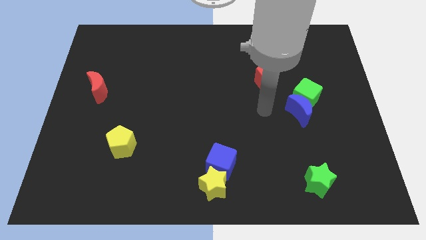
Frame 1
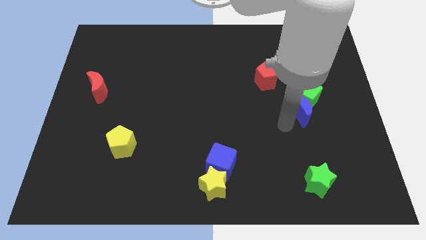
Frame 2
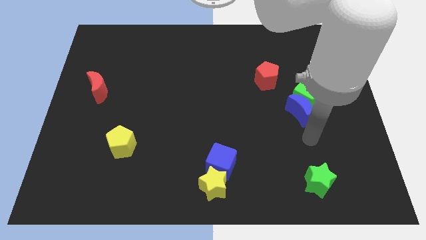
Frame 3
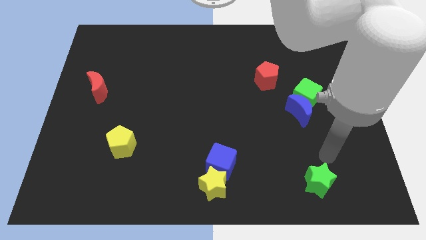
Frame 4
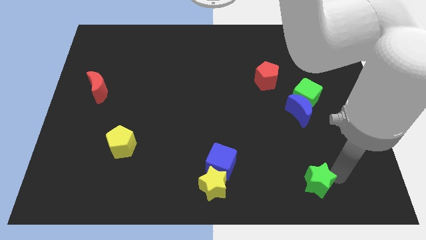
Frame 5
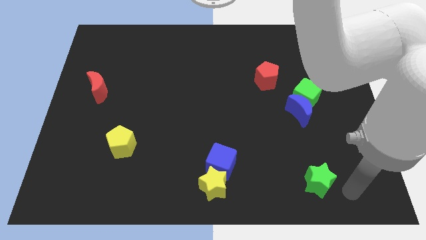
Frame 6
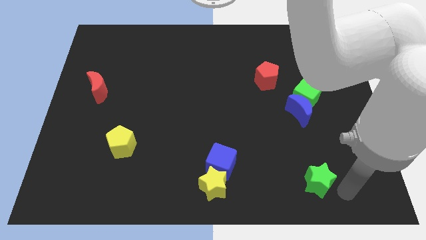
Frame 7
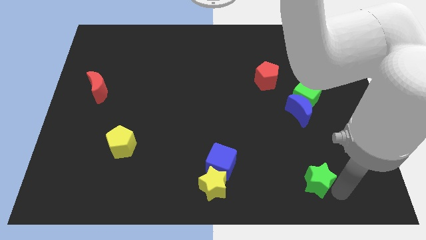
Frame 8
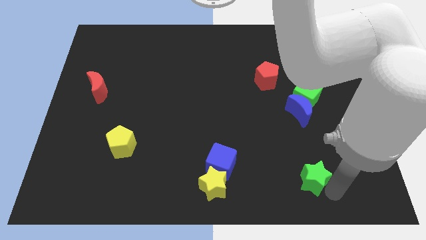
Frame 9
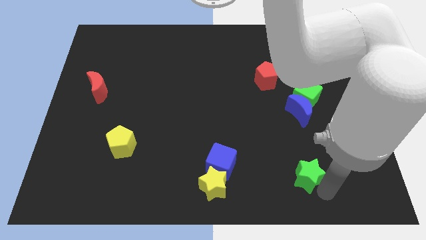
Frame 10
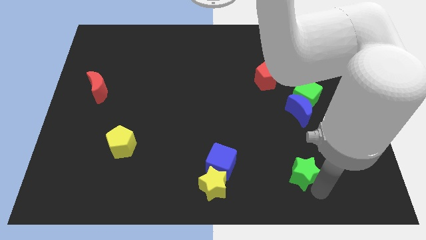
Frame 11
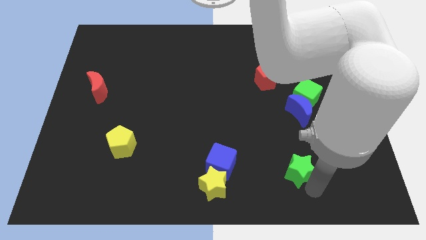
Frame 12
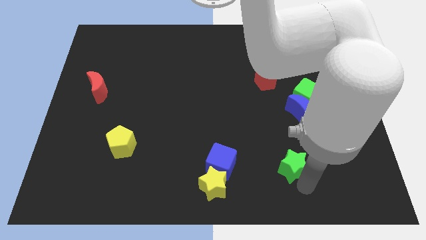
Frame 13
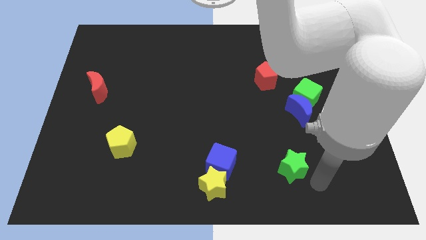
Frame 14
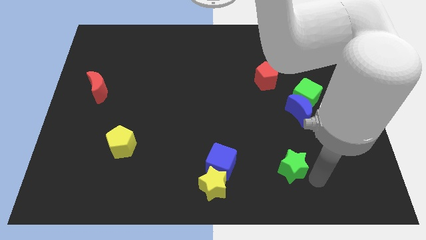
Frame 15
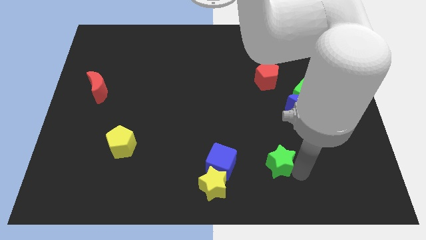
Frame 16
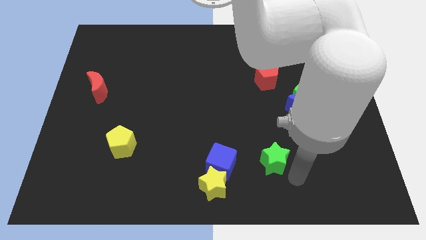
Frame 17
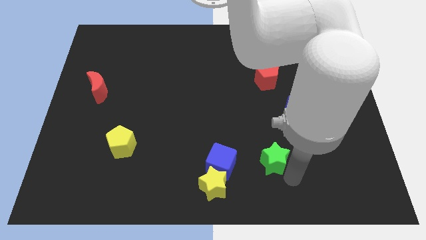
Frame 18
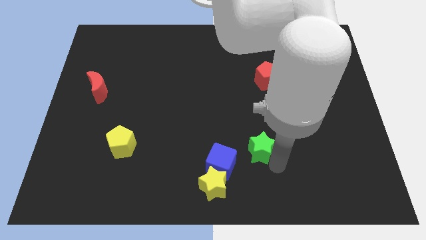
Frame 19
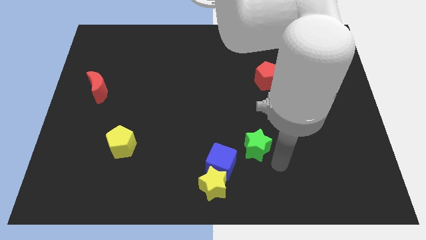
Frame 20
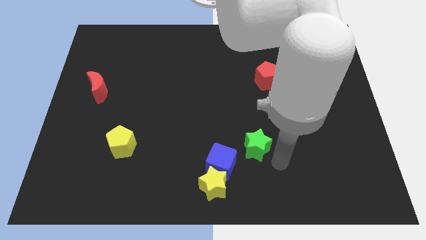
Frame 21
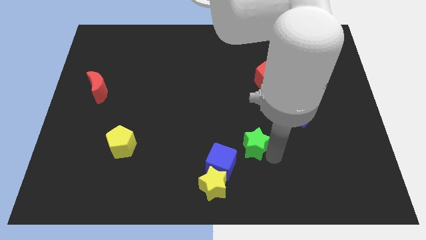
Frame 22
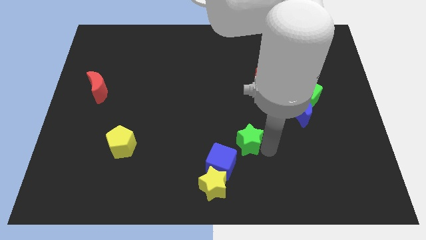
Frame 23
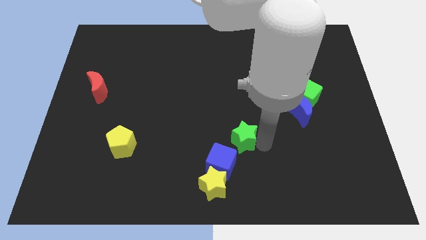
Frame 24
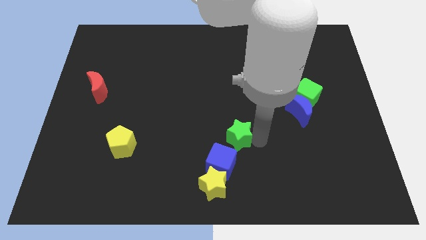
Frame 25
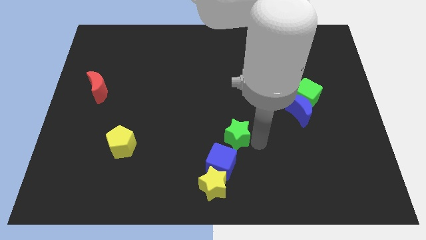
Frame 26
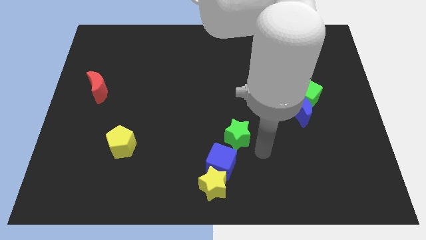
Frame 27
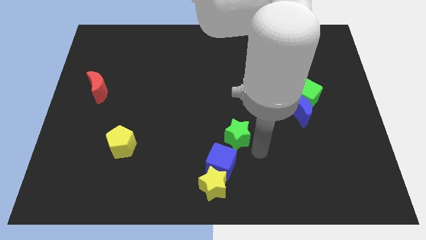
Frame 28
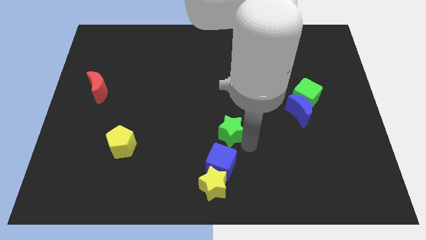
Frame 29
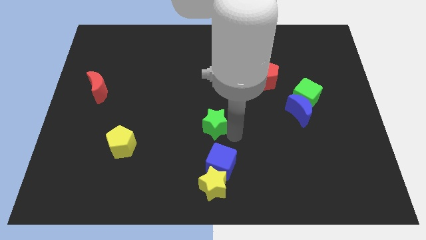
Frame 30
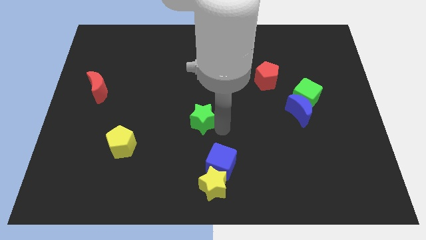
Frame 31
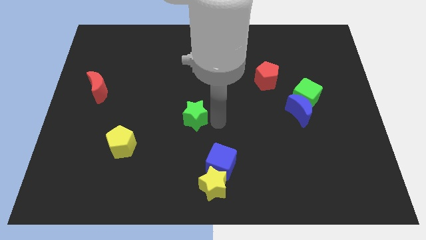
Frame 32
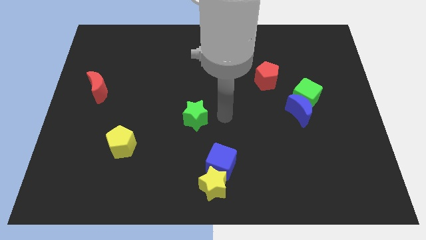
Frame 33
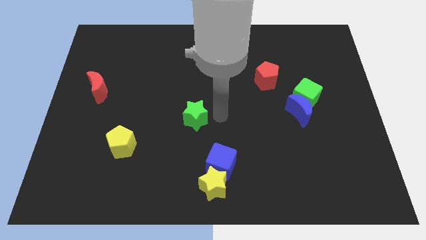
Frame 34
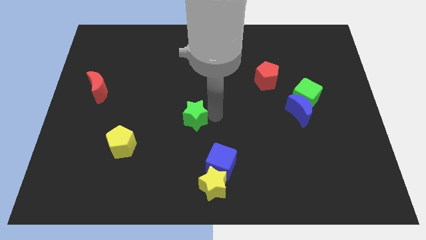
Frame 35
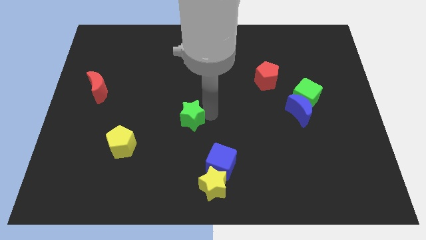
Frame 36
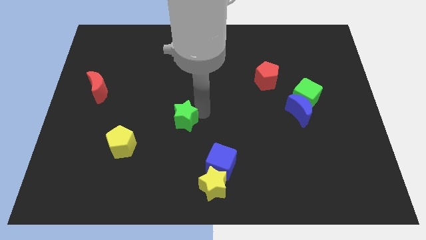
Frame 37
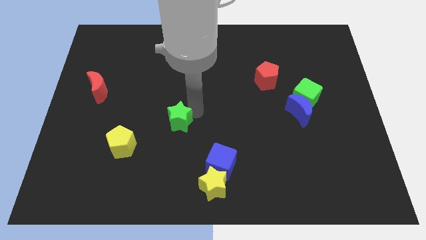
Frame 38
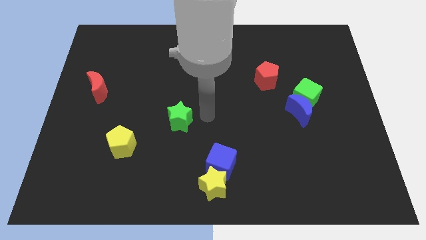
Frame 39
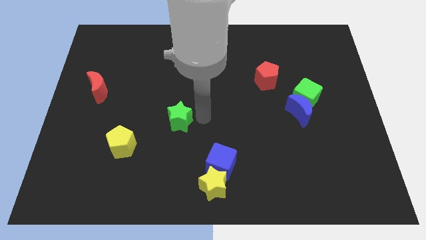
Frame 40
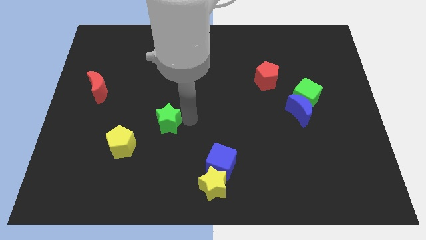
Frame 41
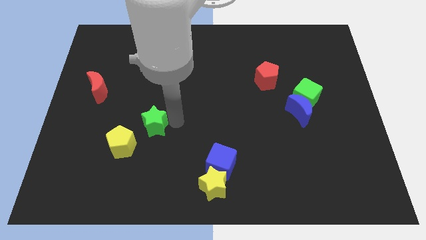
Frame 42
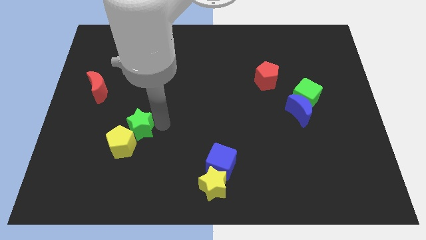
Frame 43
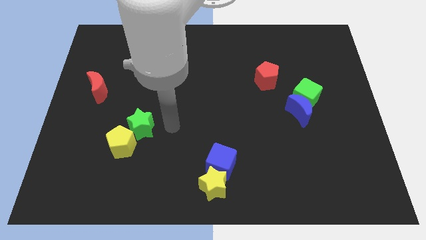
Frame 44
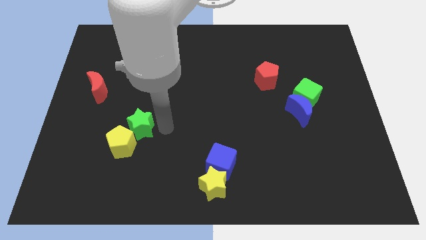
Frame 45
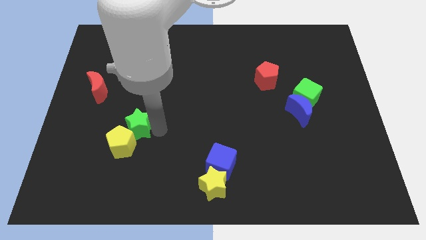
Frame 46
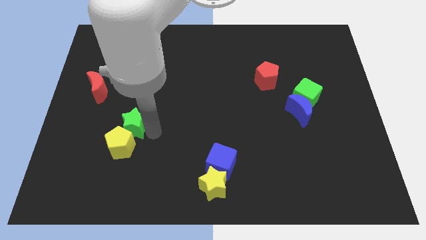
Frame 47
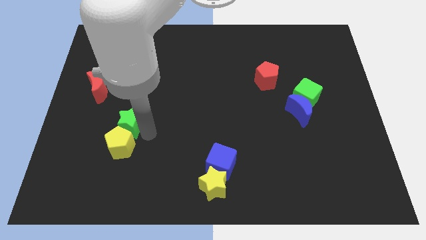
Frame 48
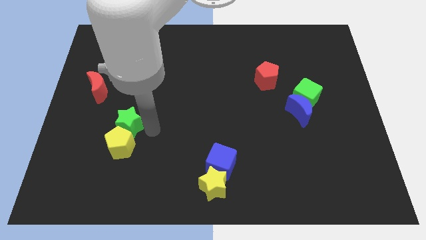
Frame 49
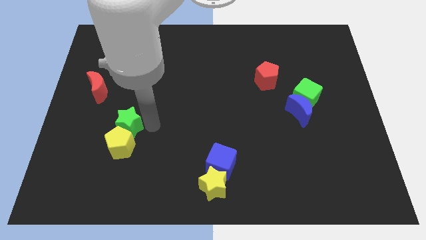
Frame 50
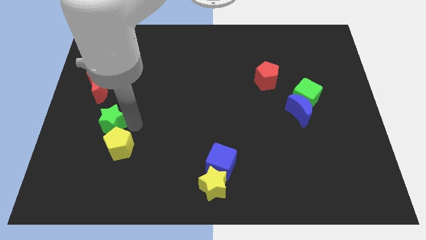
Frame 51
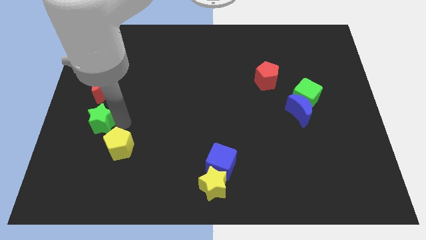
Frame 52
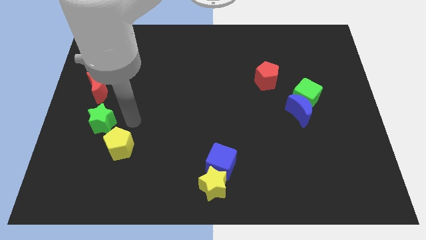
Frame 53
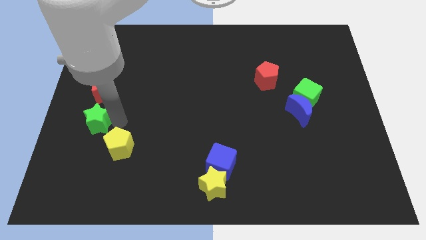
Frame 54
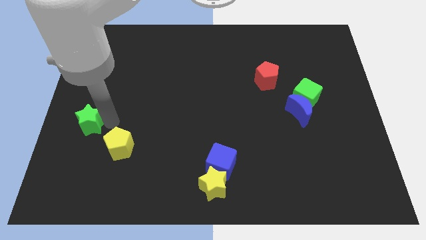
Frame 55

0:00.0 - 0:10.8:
push the green star to the left side

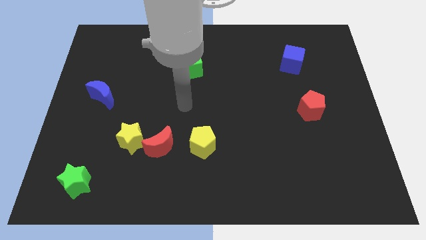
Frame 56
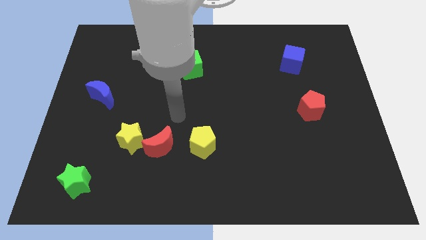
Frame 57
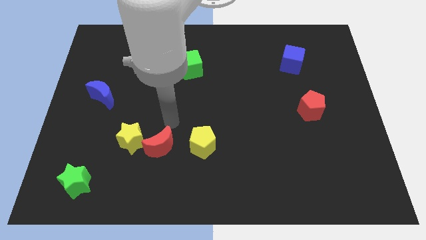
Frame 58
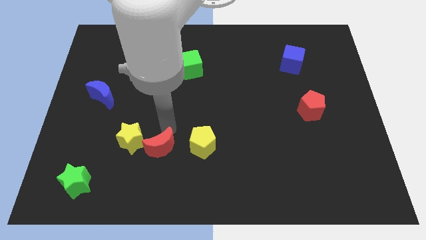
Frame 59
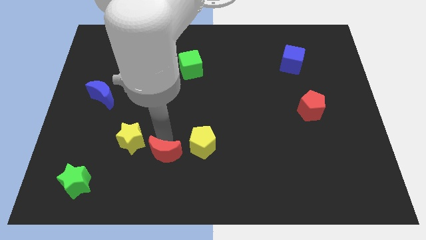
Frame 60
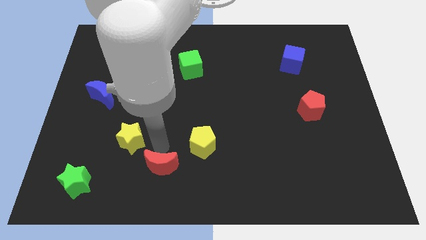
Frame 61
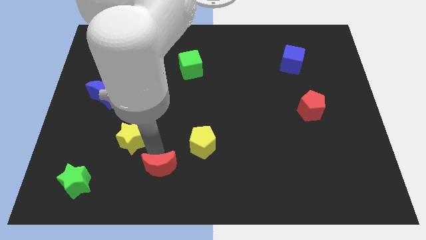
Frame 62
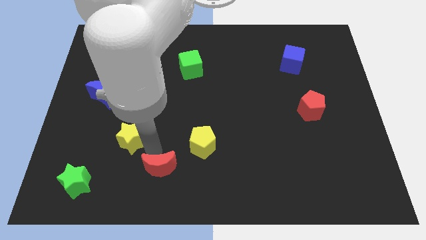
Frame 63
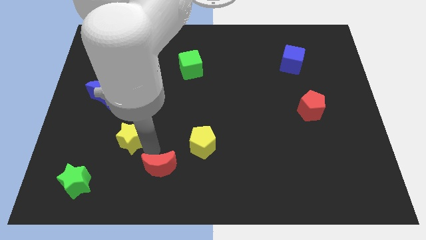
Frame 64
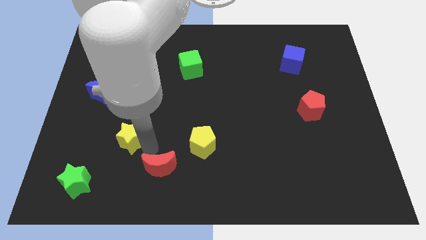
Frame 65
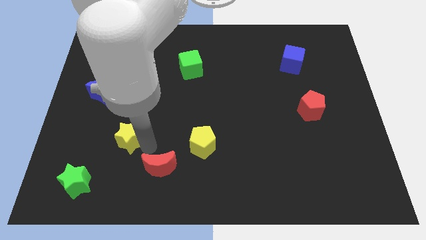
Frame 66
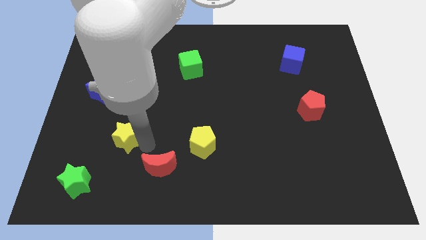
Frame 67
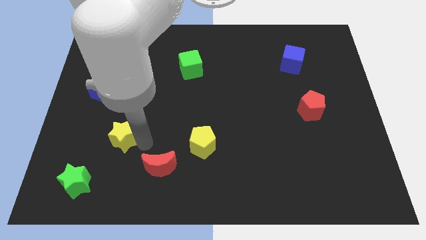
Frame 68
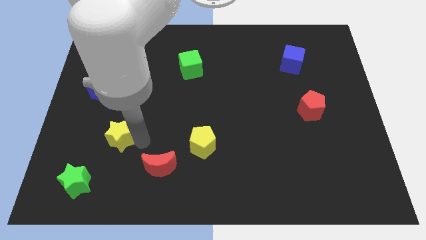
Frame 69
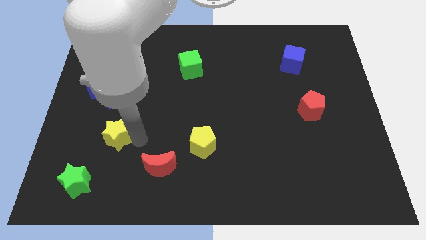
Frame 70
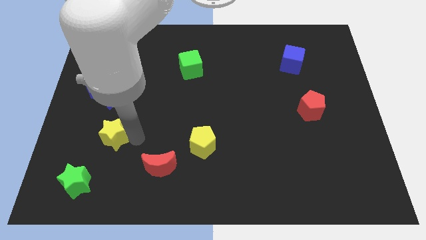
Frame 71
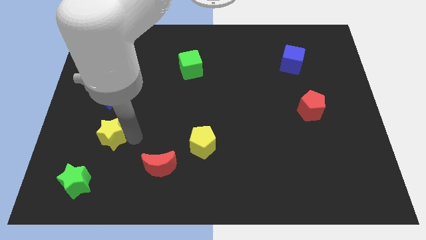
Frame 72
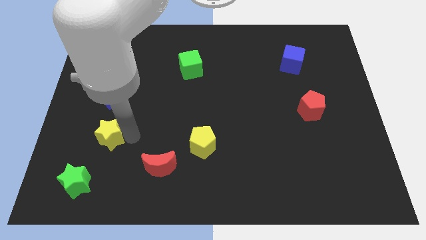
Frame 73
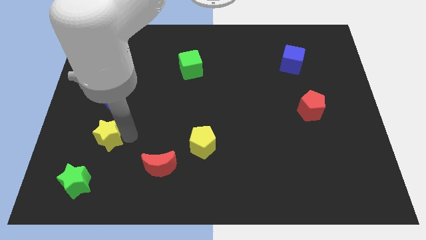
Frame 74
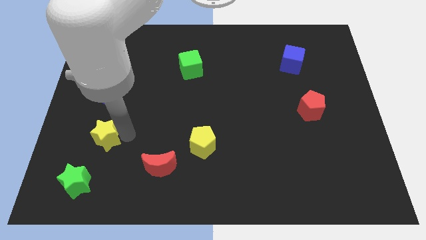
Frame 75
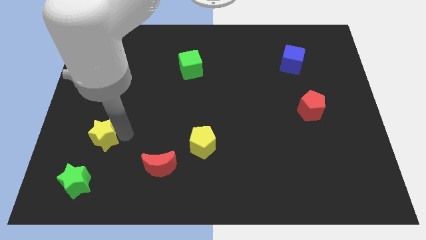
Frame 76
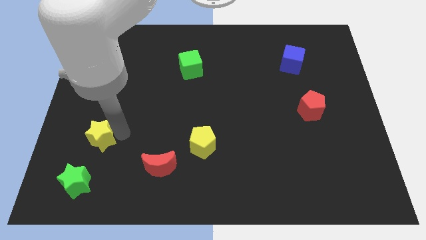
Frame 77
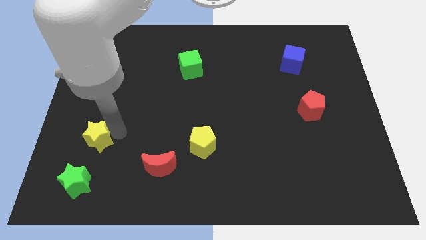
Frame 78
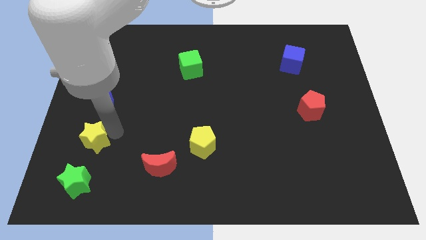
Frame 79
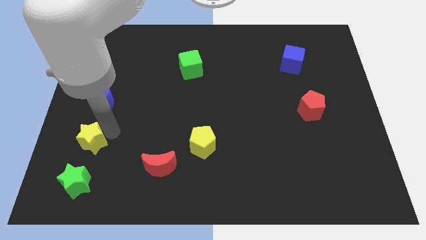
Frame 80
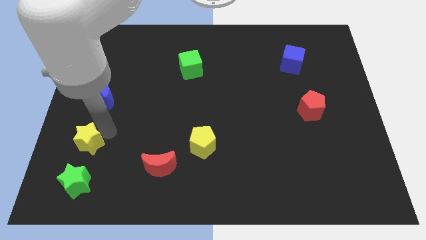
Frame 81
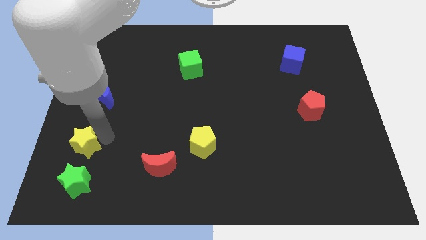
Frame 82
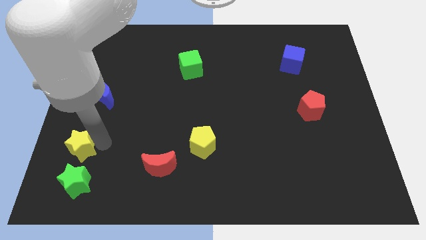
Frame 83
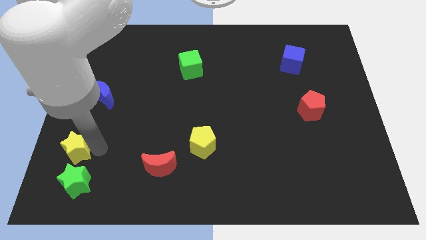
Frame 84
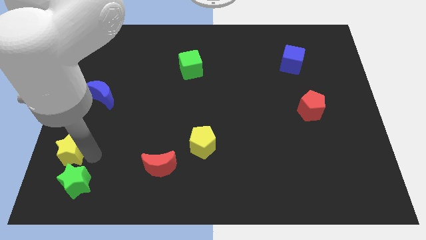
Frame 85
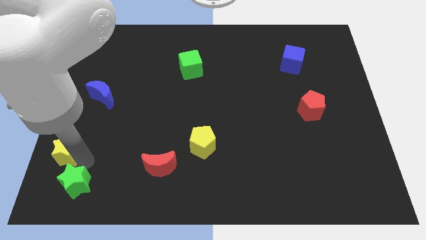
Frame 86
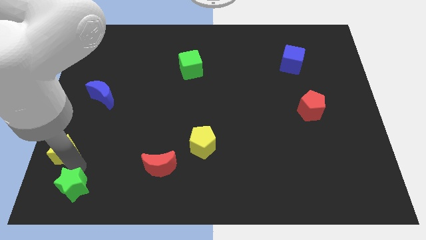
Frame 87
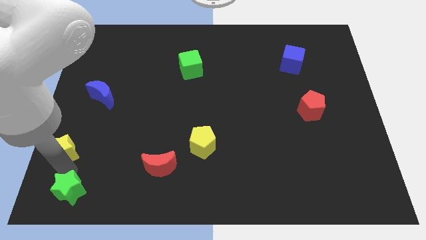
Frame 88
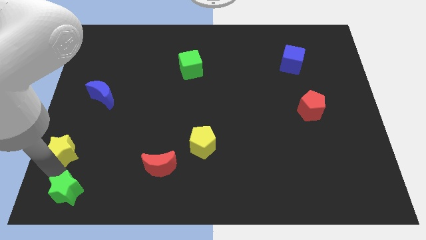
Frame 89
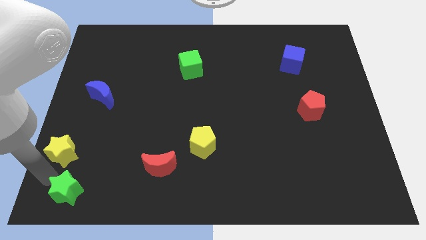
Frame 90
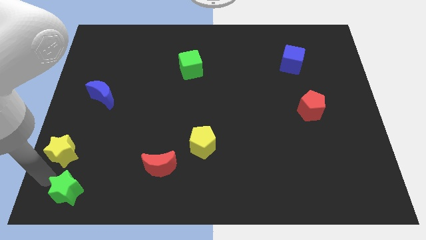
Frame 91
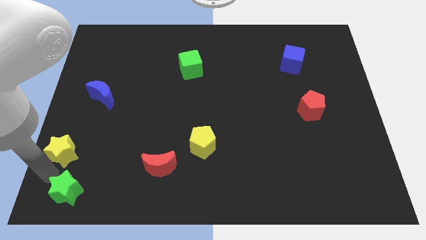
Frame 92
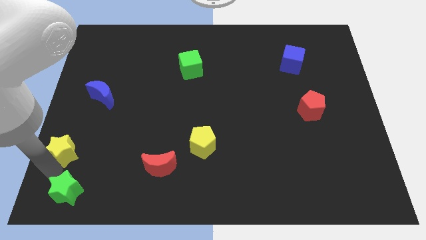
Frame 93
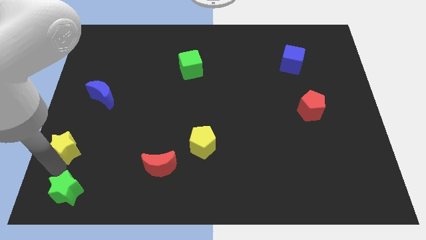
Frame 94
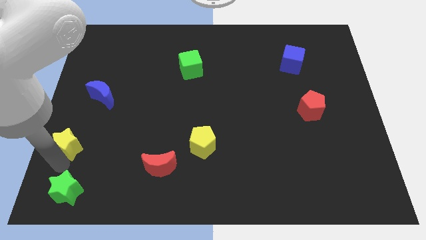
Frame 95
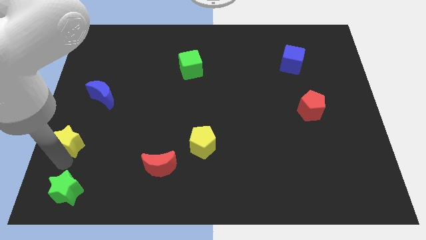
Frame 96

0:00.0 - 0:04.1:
push the yellow star to the left side of the board
